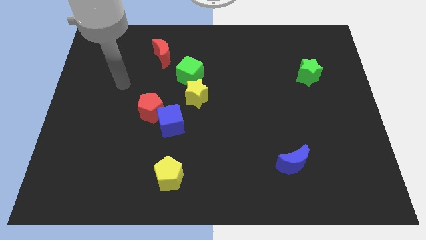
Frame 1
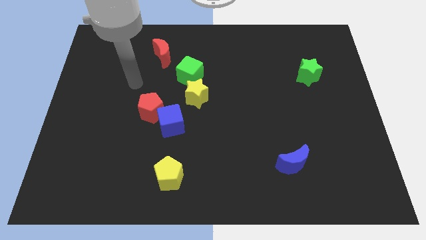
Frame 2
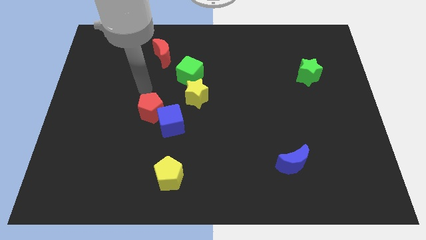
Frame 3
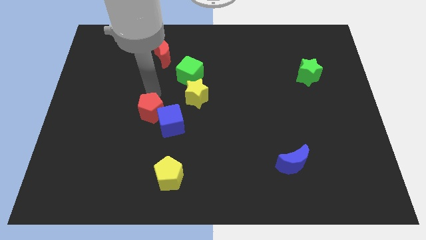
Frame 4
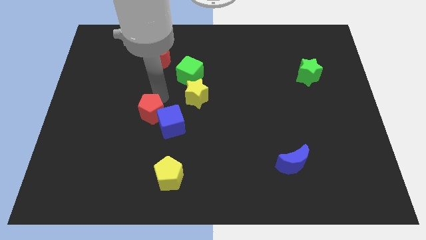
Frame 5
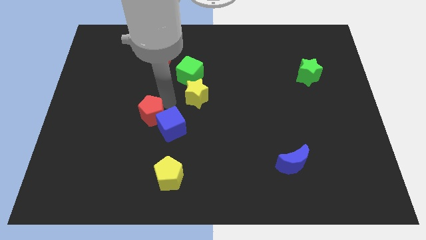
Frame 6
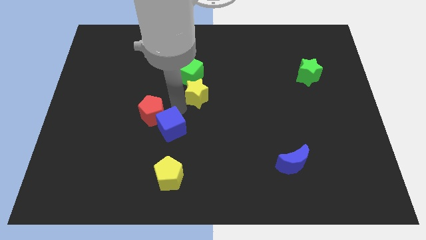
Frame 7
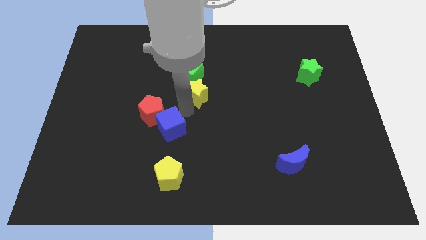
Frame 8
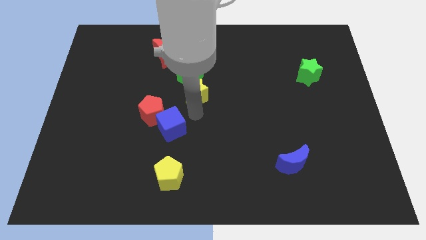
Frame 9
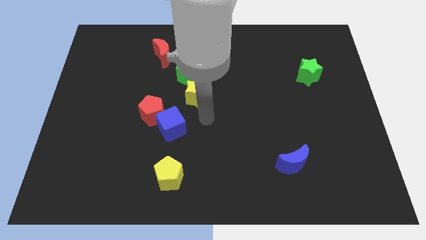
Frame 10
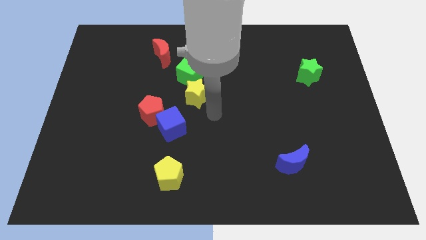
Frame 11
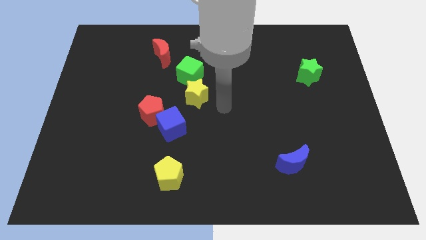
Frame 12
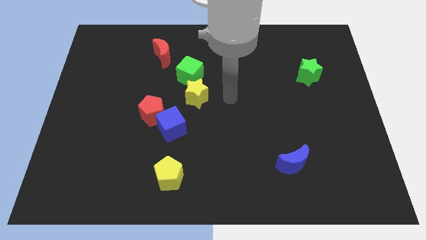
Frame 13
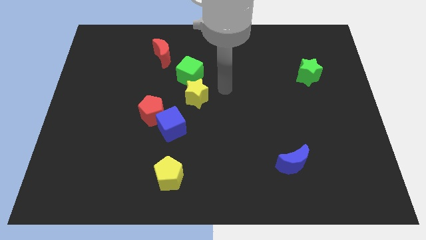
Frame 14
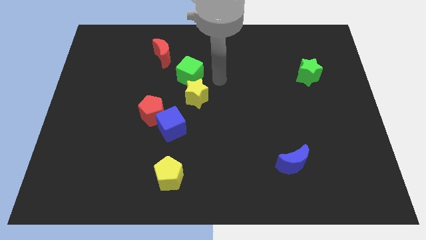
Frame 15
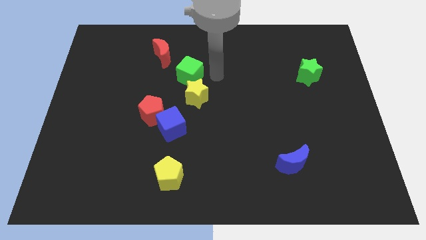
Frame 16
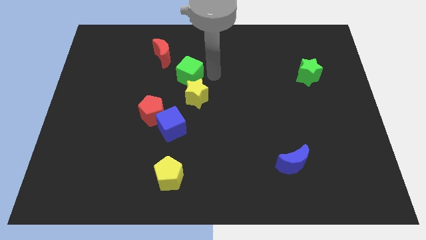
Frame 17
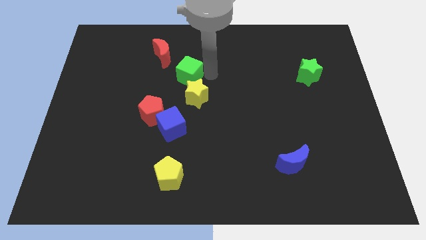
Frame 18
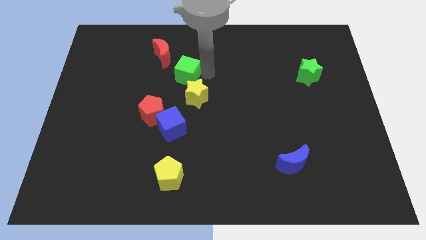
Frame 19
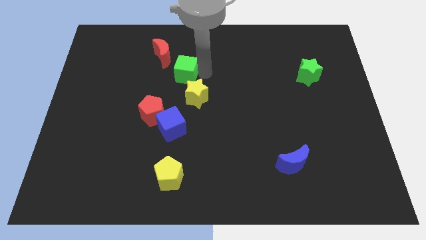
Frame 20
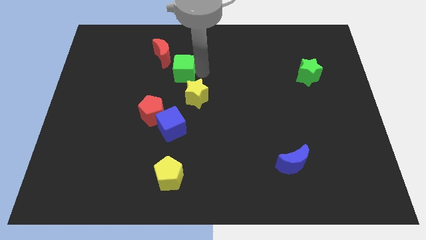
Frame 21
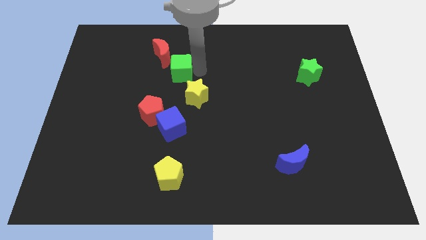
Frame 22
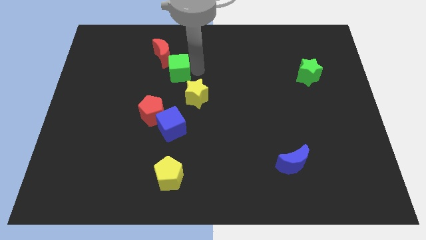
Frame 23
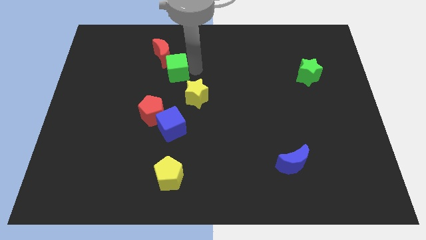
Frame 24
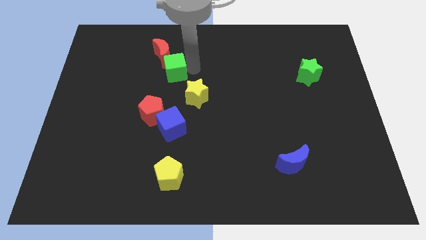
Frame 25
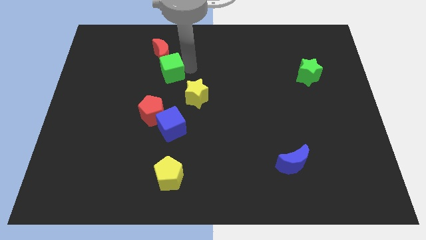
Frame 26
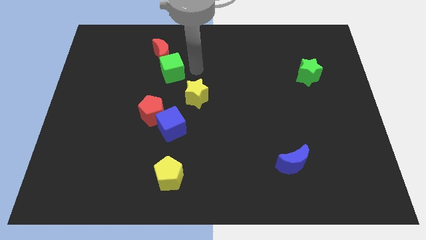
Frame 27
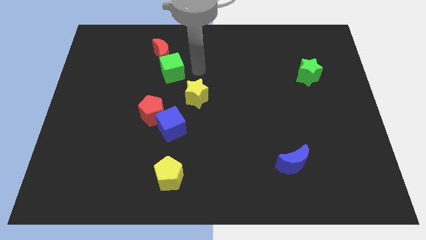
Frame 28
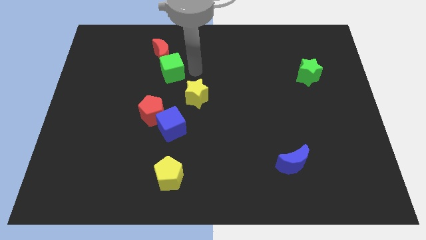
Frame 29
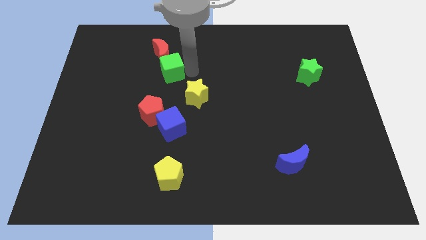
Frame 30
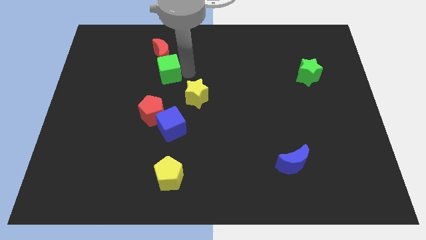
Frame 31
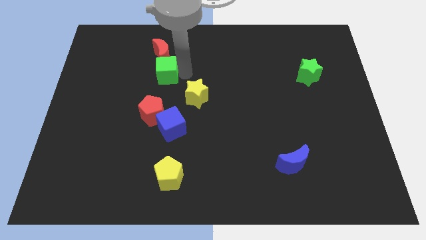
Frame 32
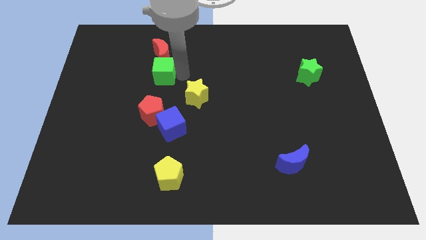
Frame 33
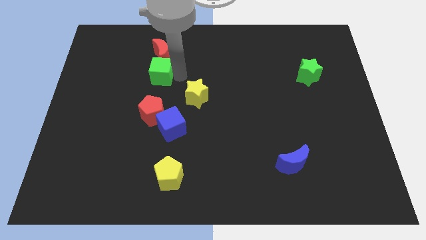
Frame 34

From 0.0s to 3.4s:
slide the green cube left somewhat

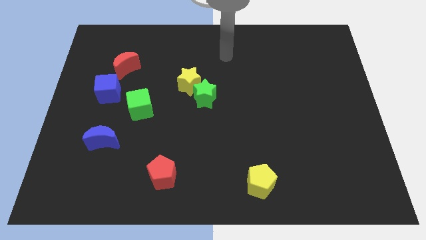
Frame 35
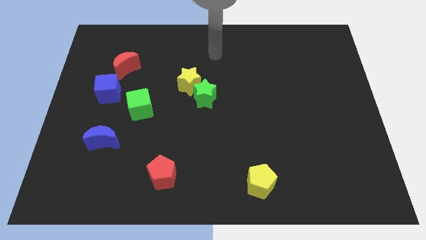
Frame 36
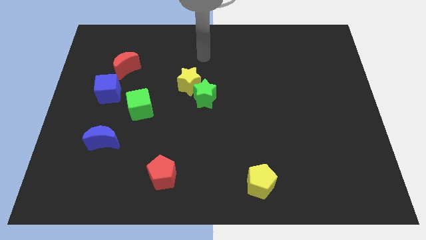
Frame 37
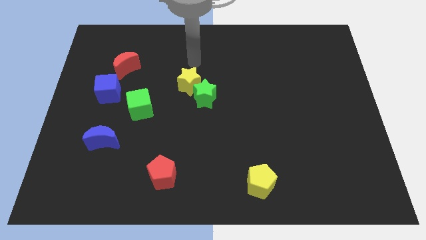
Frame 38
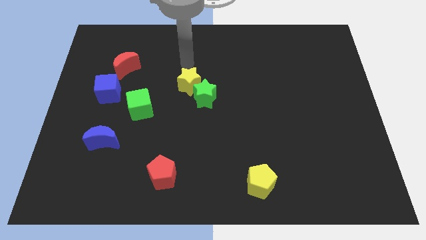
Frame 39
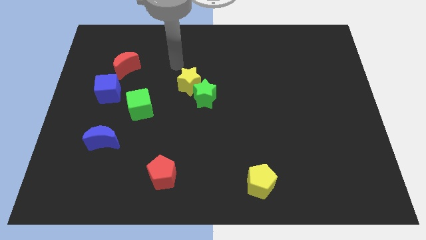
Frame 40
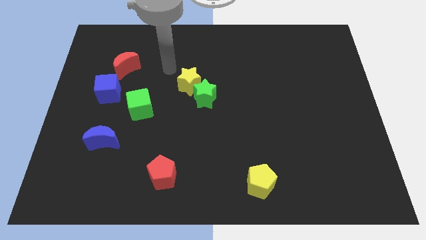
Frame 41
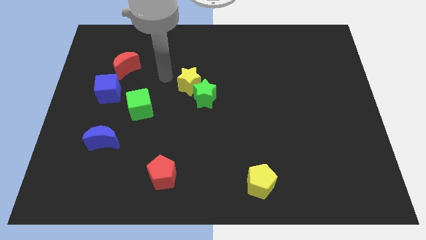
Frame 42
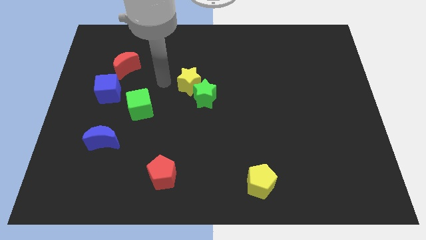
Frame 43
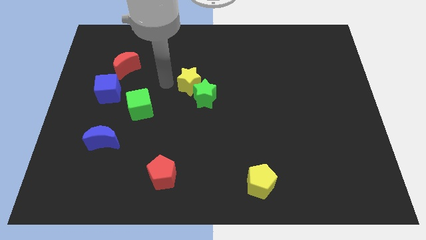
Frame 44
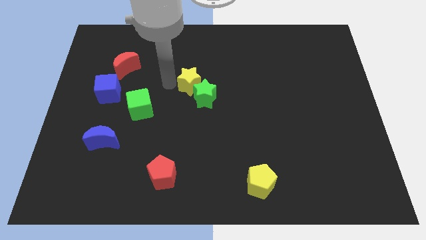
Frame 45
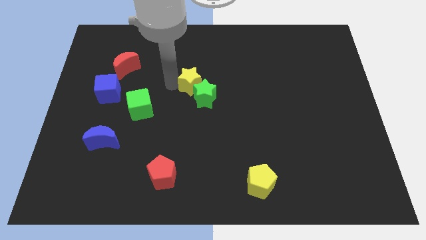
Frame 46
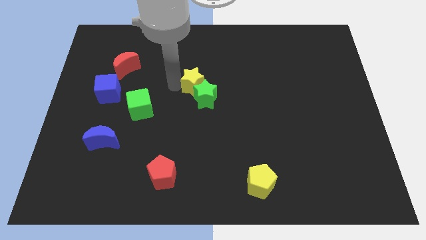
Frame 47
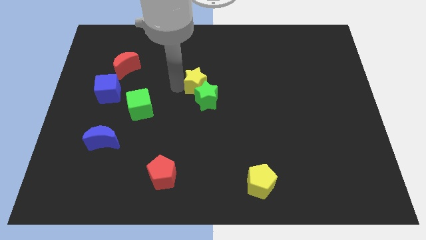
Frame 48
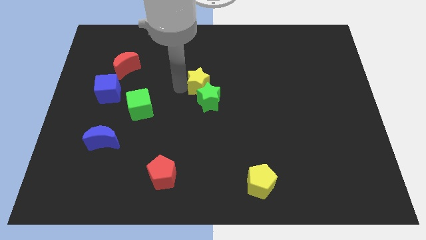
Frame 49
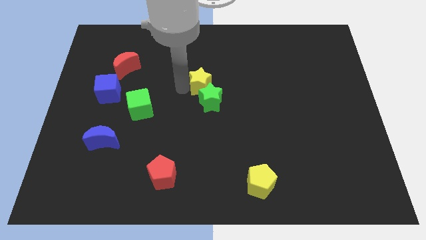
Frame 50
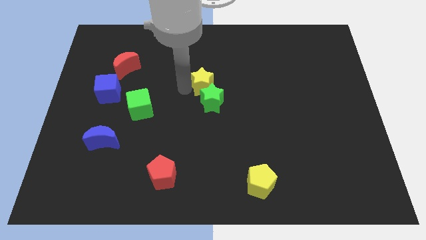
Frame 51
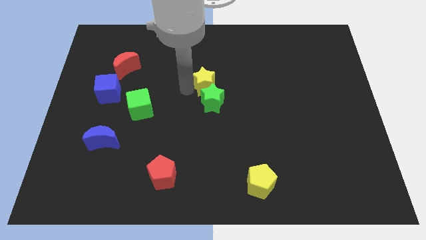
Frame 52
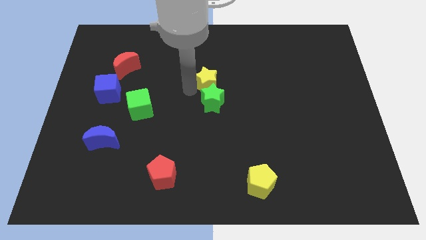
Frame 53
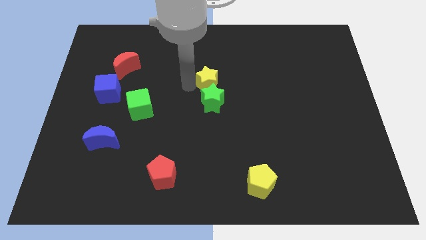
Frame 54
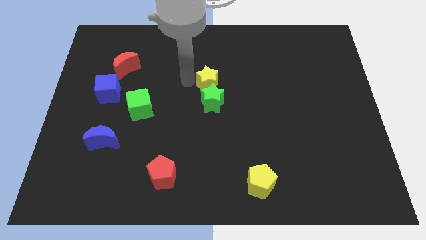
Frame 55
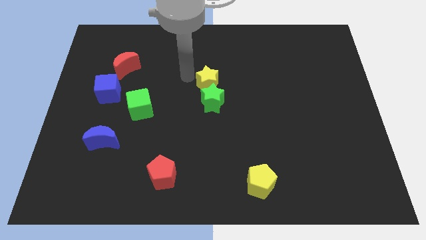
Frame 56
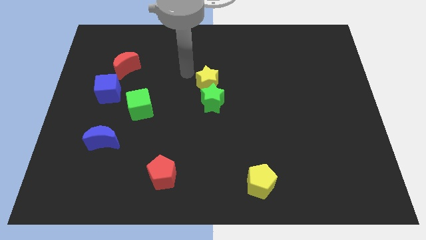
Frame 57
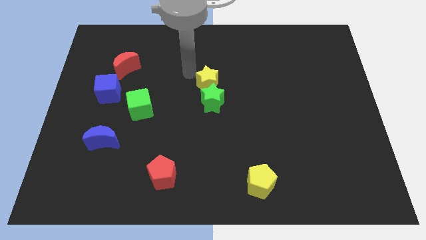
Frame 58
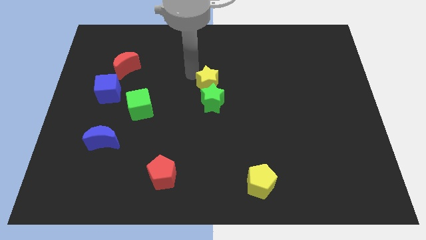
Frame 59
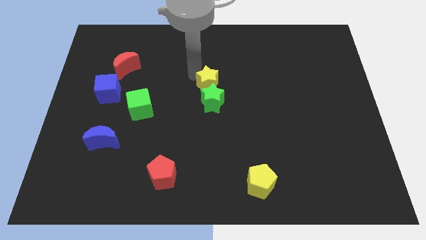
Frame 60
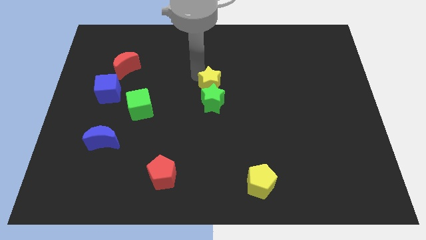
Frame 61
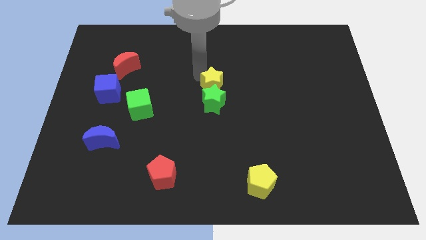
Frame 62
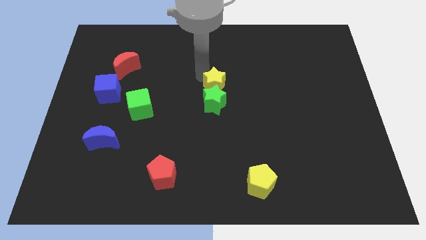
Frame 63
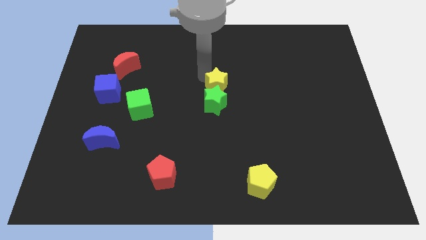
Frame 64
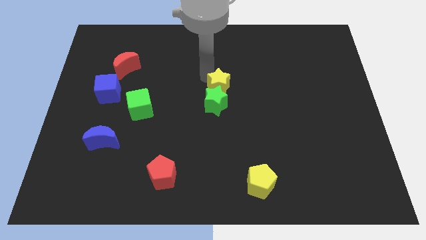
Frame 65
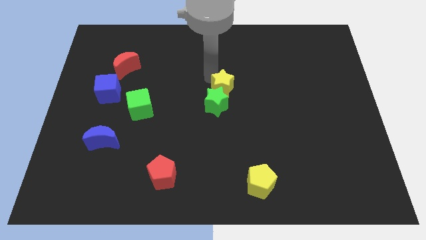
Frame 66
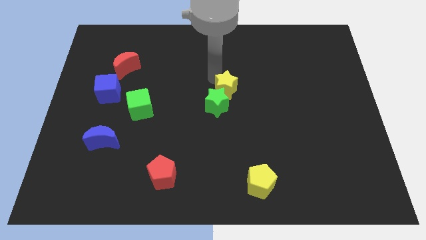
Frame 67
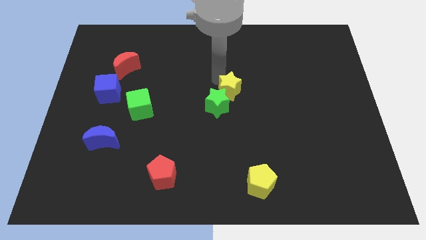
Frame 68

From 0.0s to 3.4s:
move the yellow star somewhat downwards and to the right

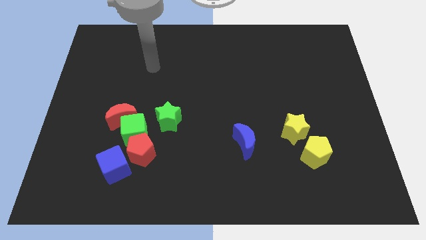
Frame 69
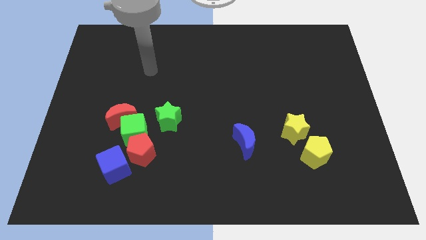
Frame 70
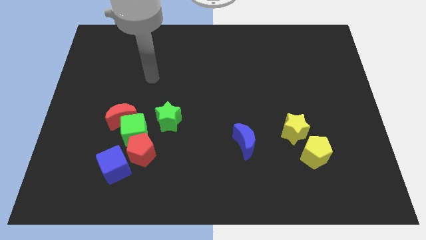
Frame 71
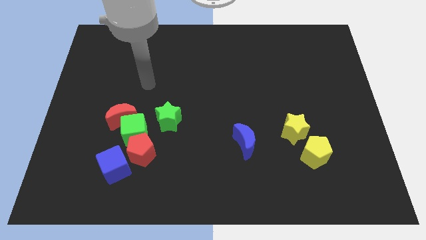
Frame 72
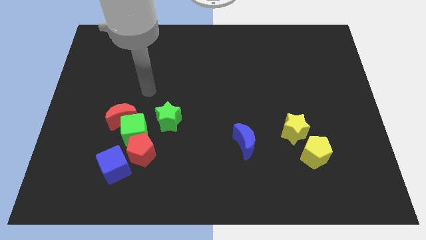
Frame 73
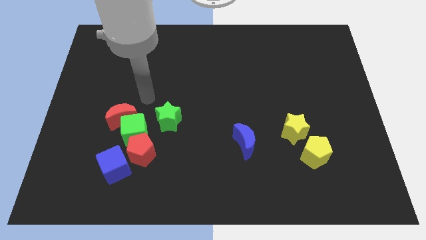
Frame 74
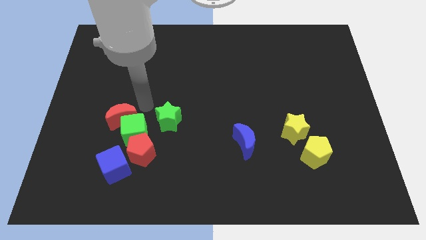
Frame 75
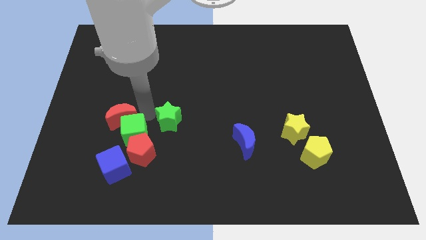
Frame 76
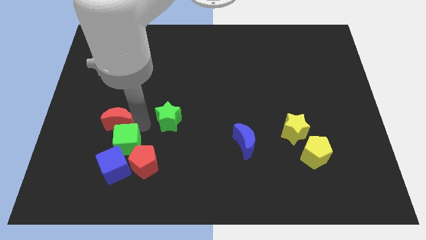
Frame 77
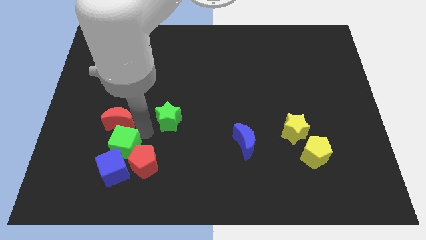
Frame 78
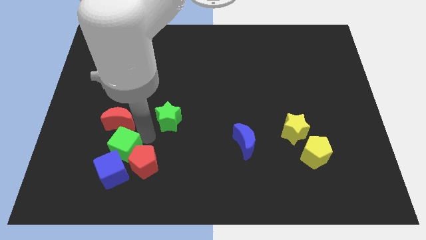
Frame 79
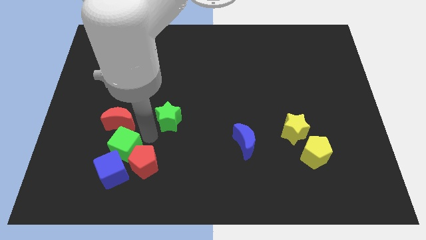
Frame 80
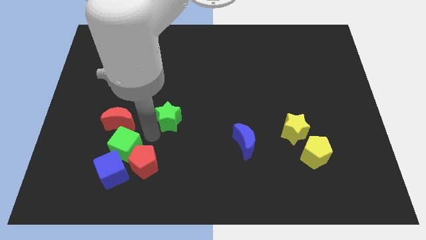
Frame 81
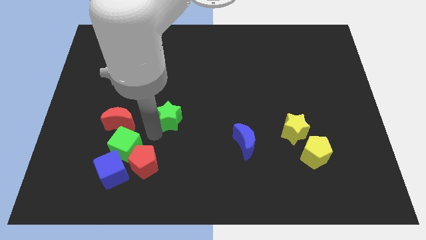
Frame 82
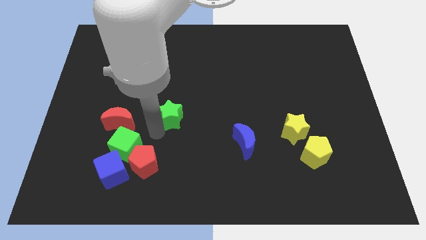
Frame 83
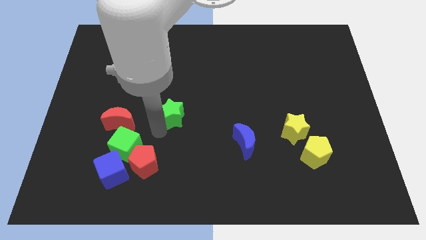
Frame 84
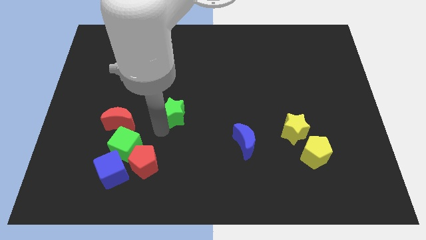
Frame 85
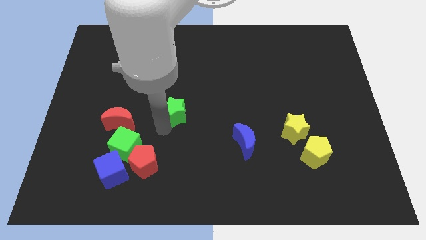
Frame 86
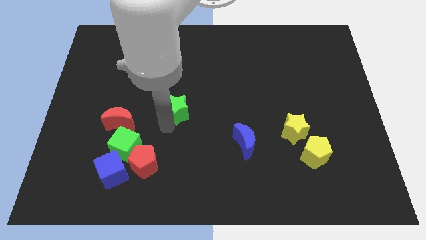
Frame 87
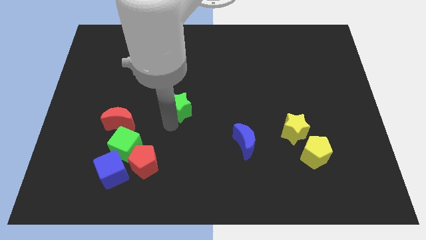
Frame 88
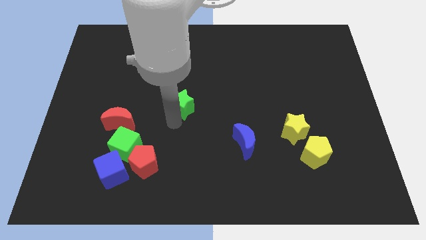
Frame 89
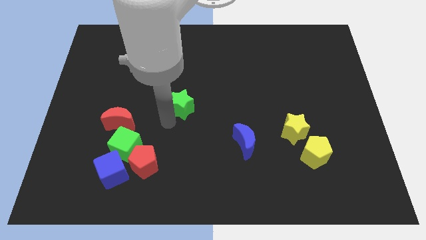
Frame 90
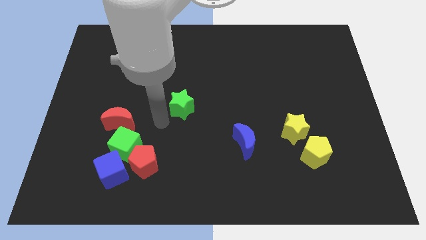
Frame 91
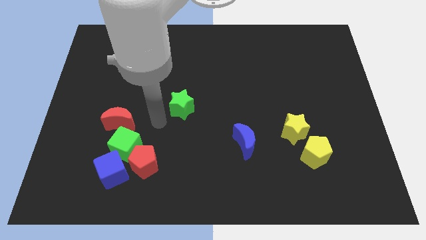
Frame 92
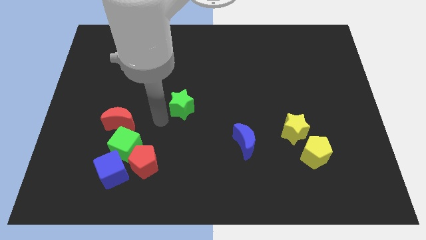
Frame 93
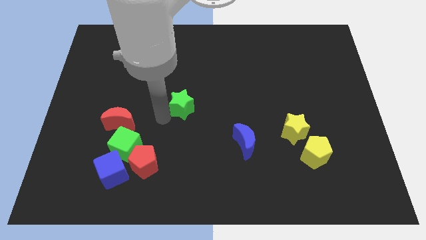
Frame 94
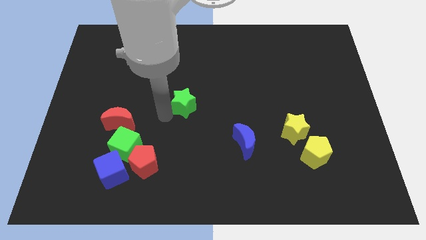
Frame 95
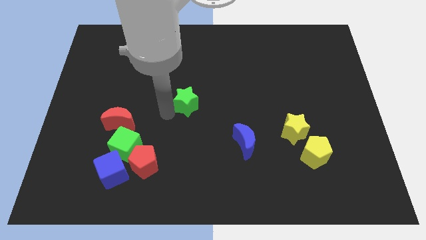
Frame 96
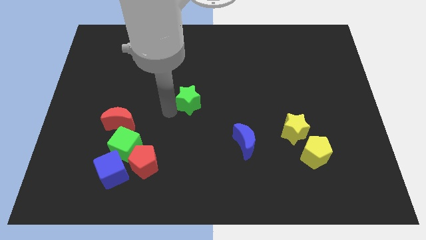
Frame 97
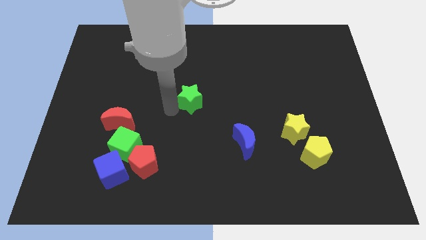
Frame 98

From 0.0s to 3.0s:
move the green star a little bit up and right
